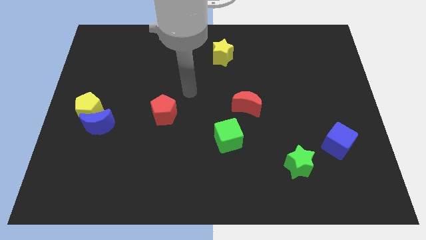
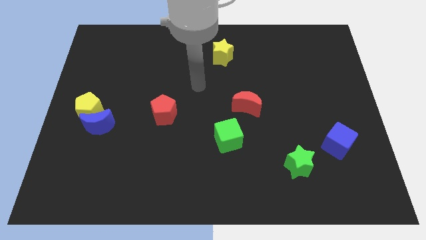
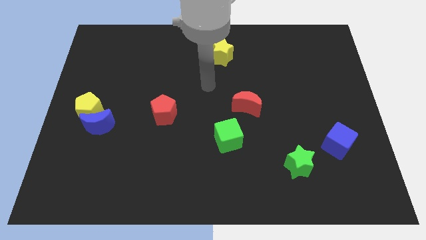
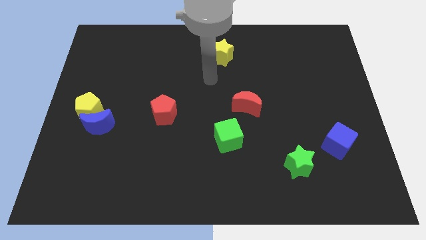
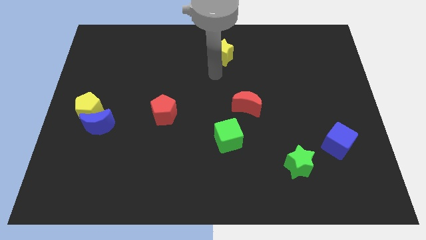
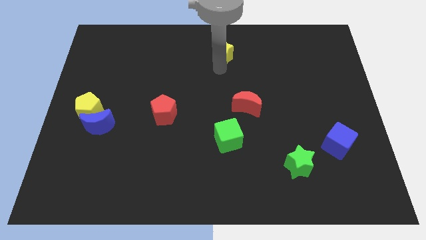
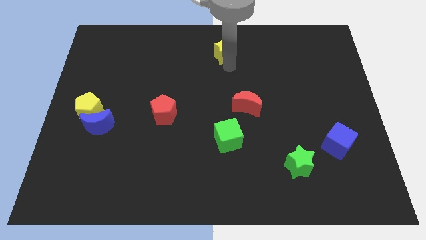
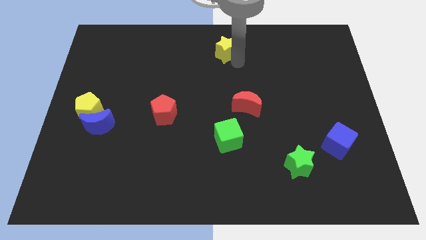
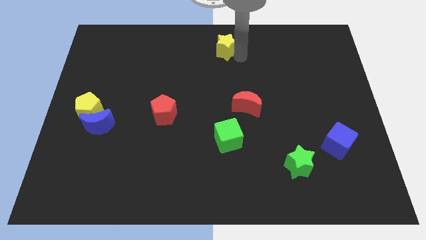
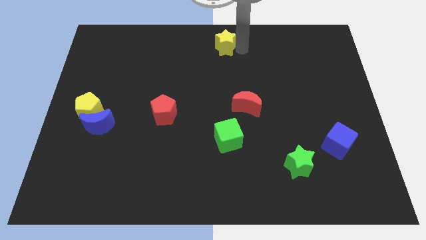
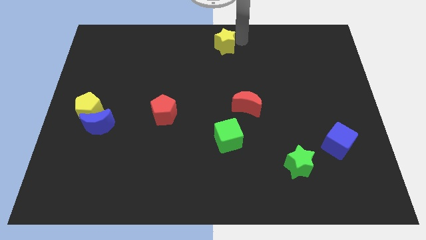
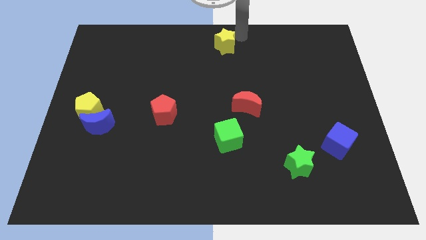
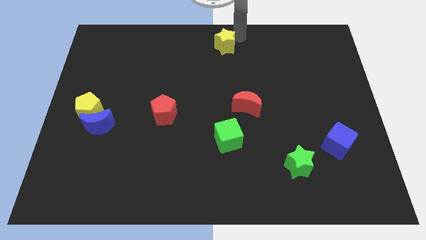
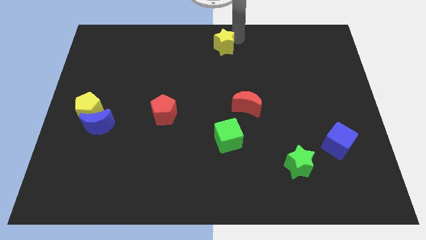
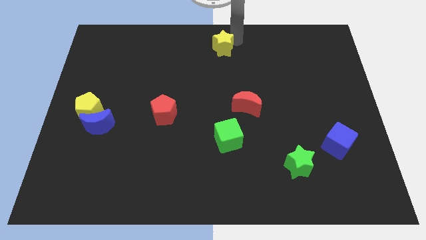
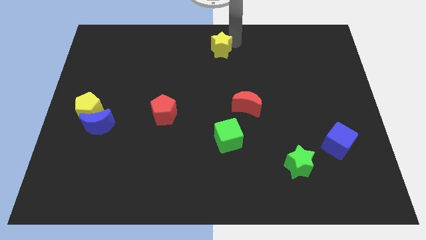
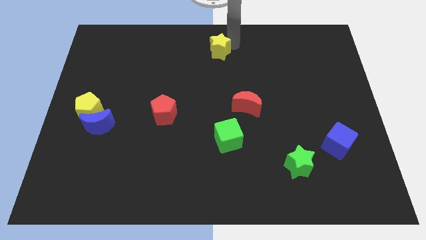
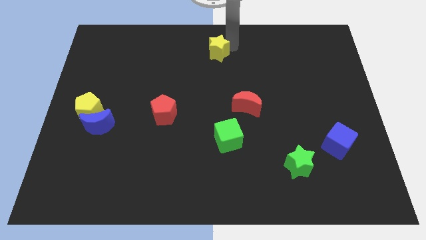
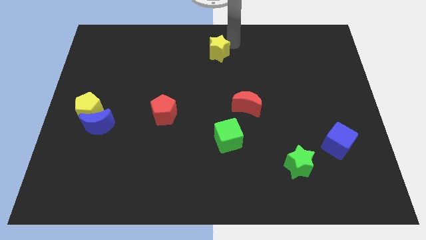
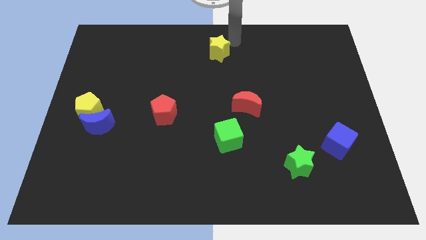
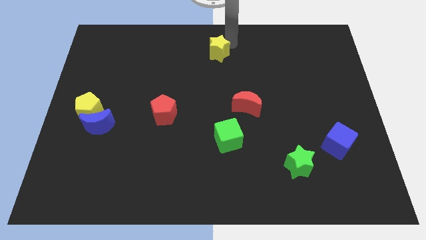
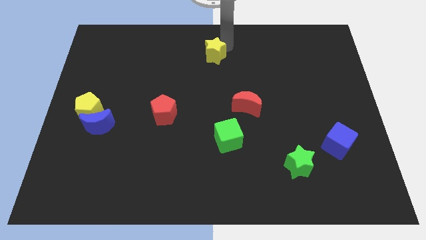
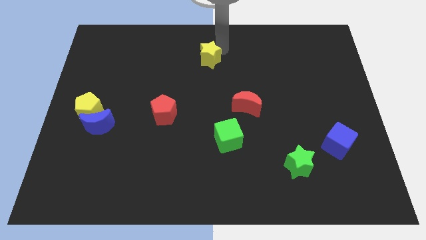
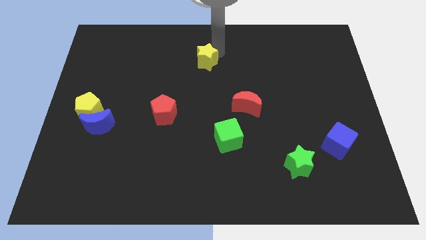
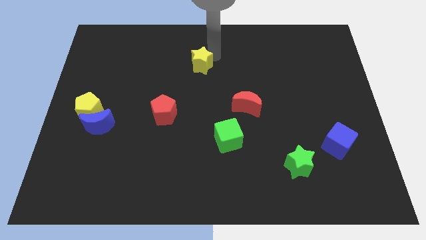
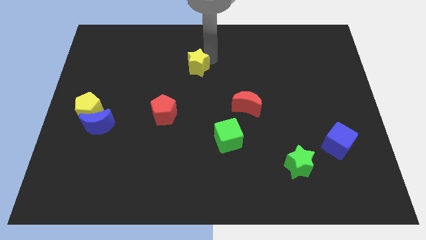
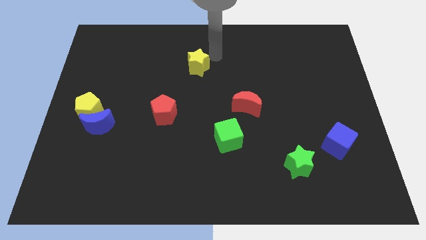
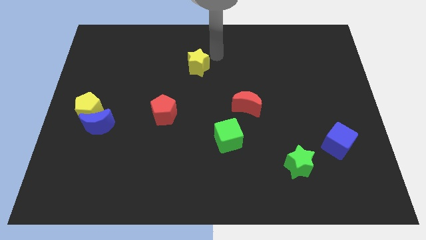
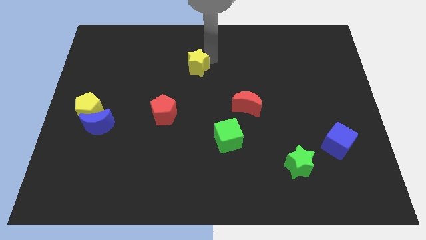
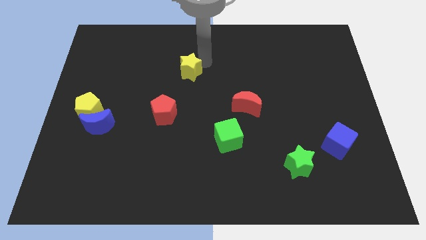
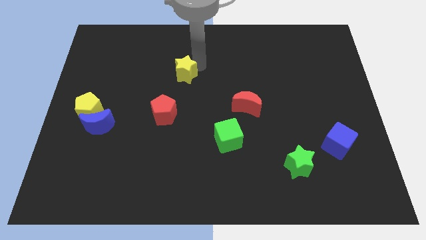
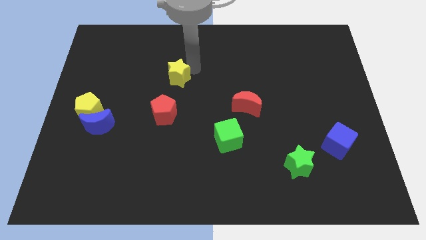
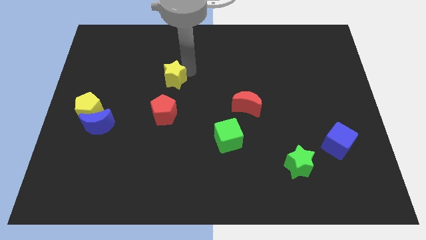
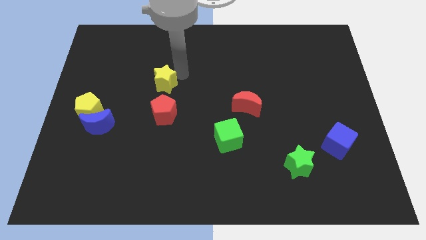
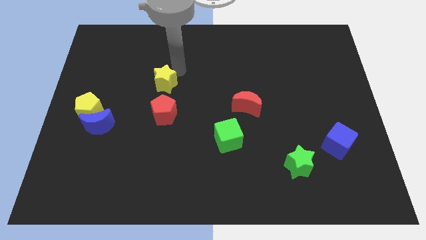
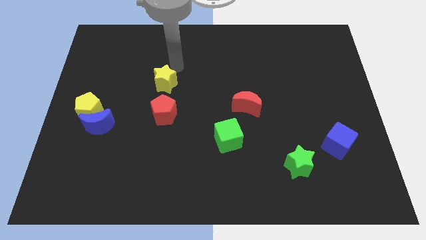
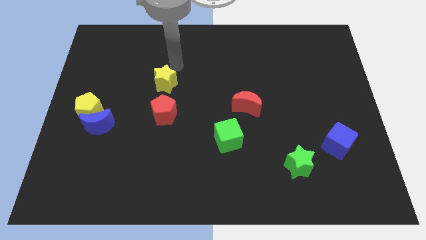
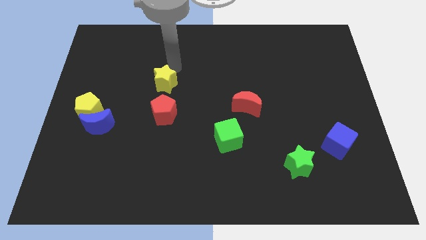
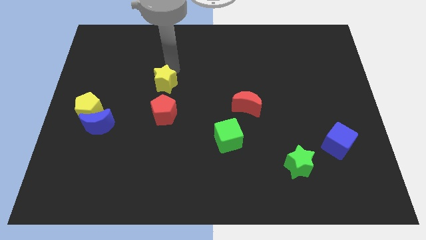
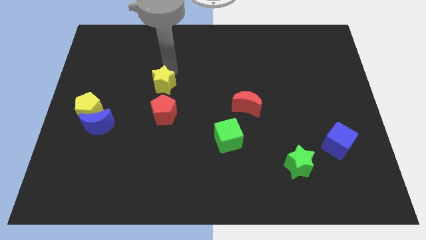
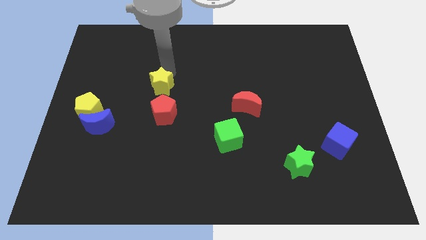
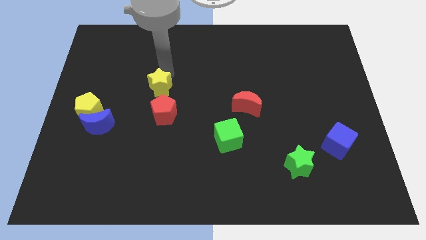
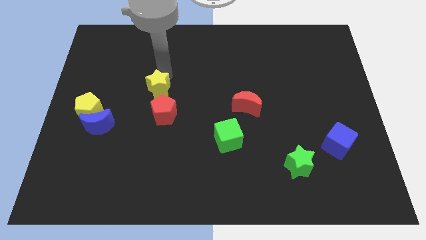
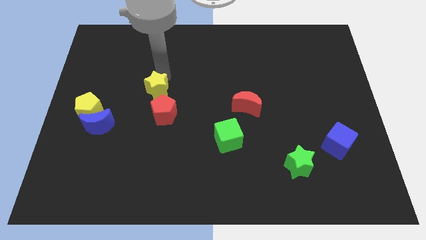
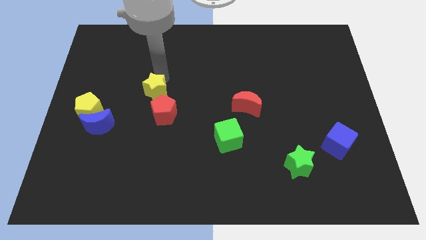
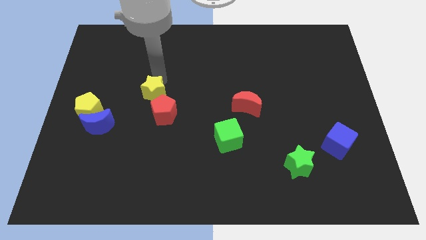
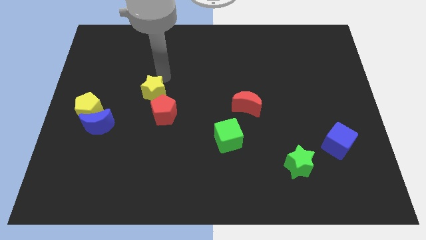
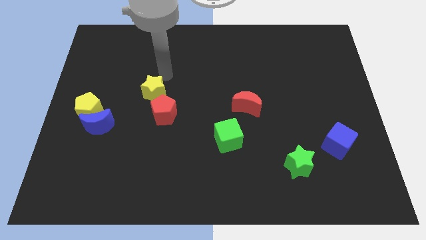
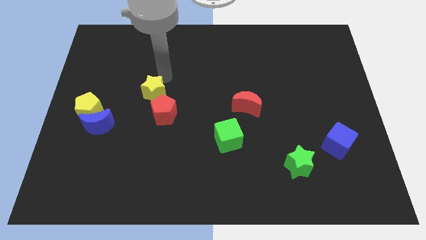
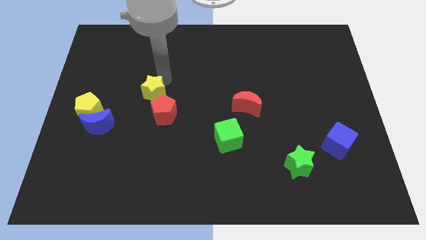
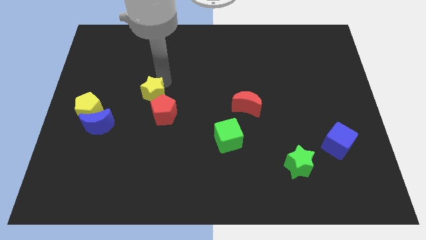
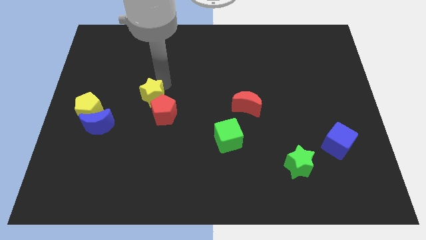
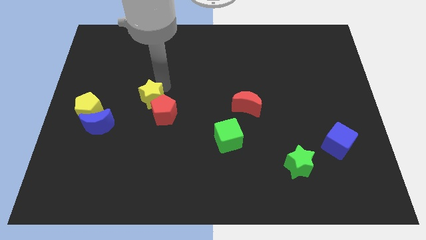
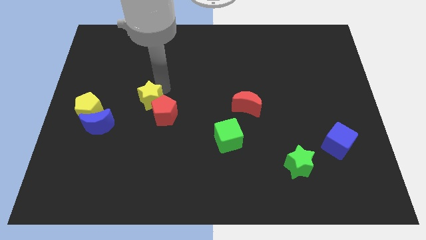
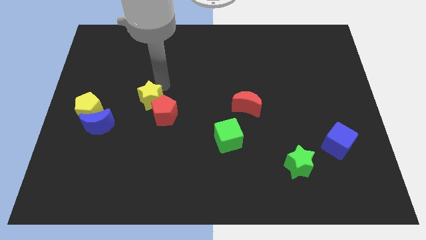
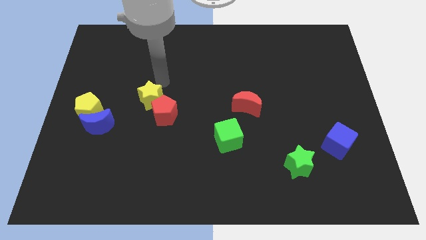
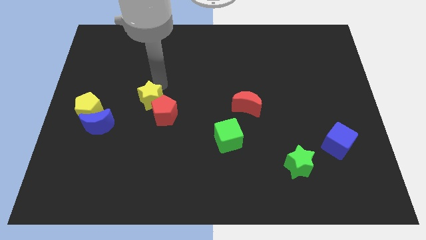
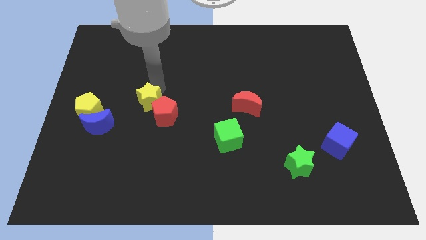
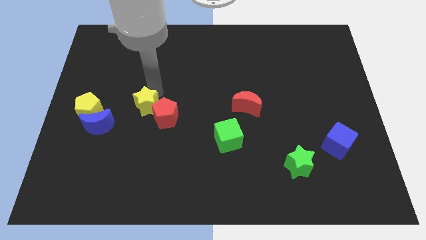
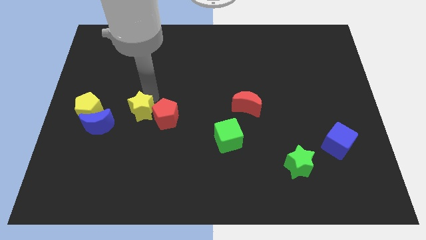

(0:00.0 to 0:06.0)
put the yellow star right of the blue moon

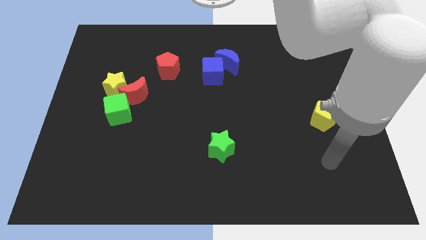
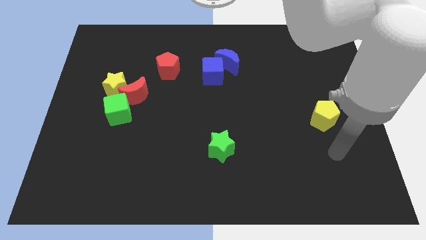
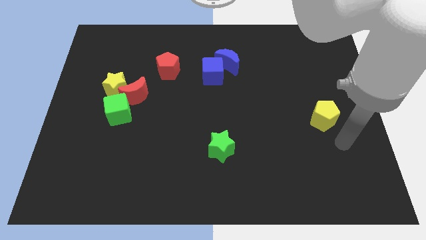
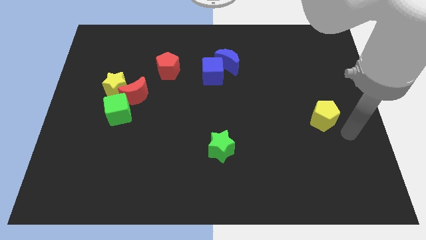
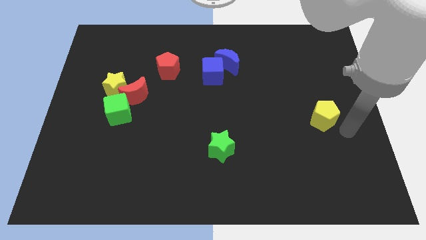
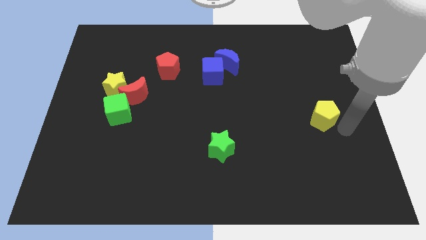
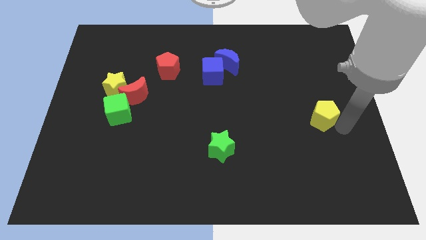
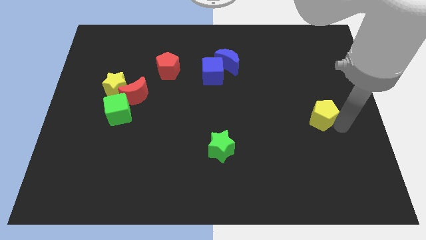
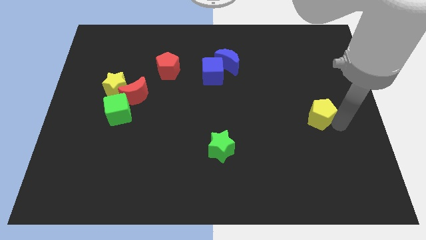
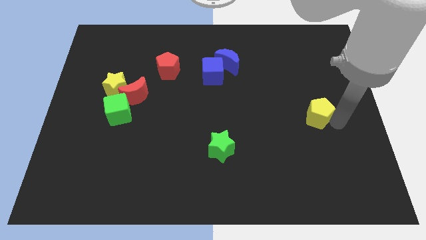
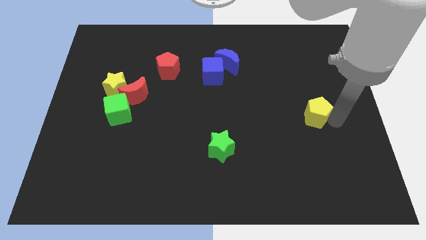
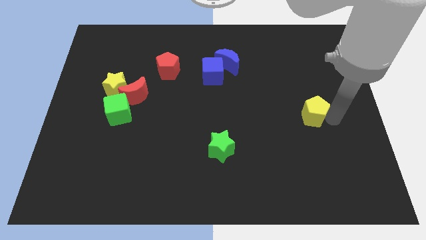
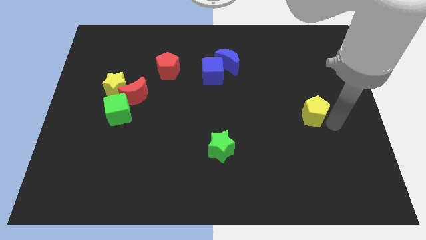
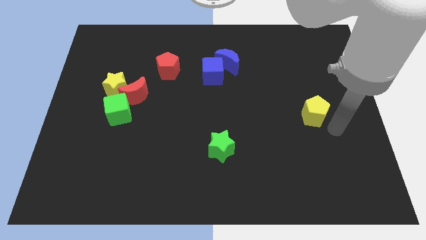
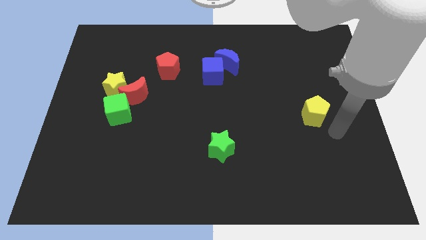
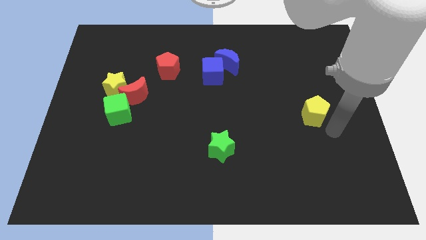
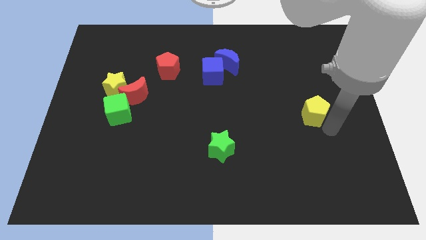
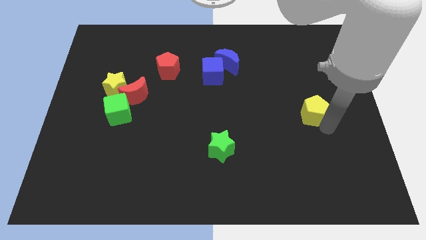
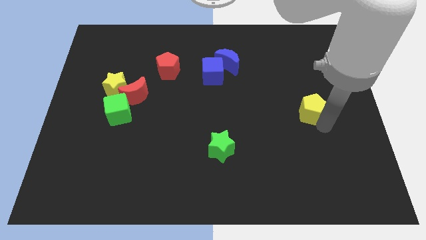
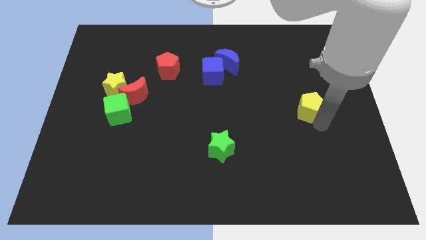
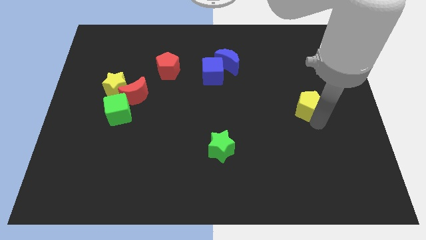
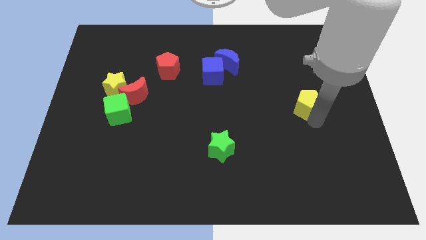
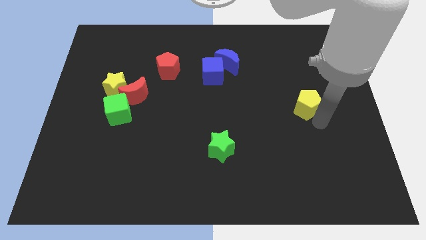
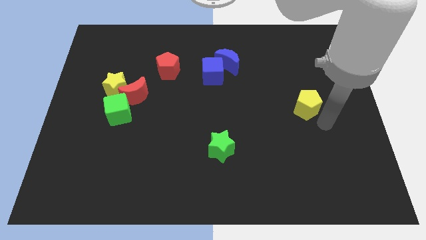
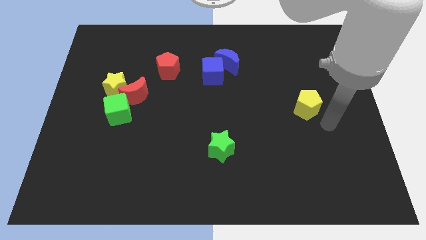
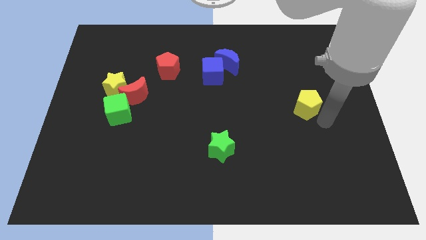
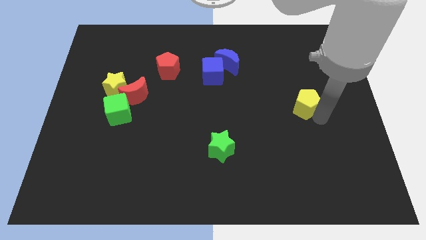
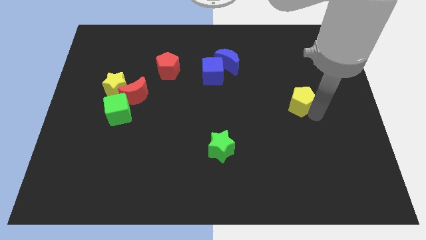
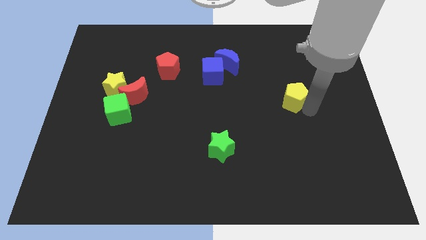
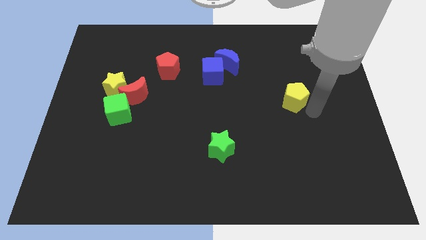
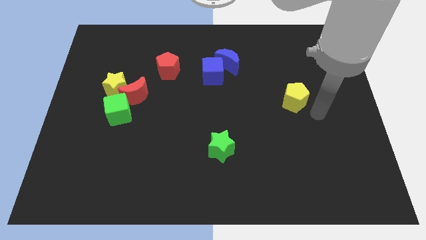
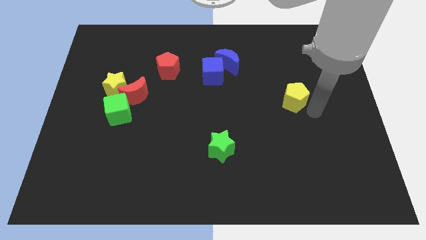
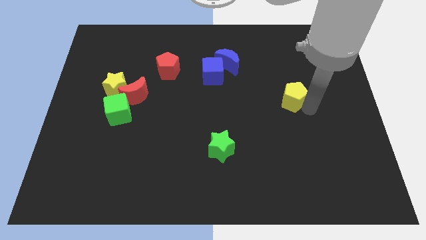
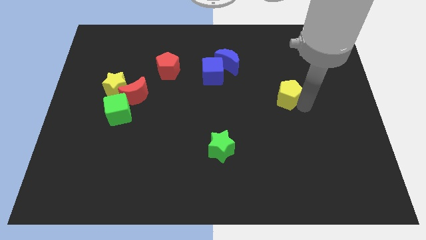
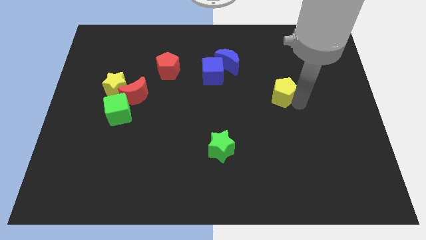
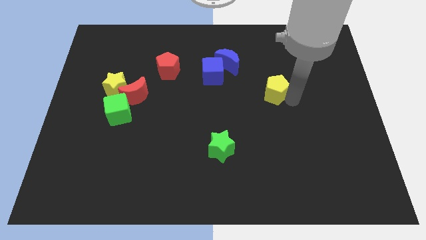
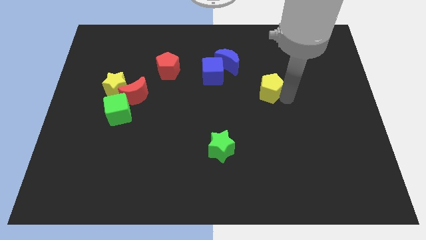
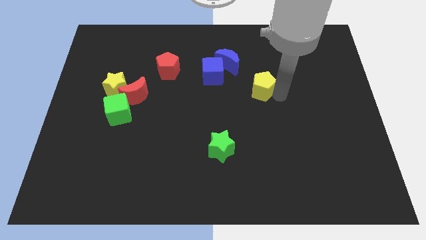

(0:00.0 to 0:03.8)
put the yellow pentagon to the bottom right side of the blue moon
